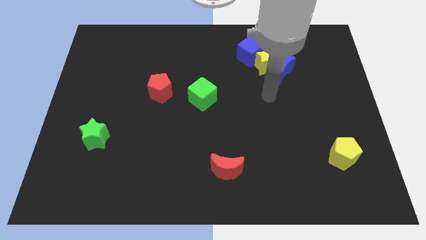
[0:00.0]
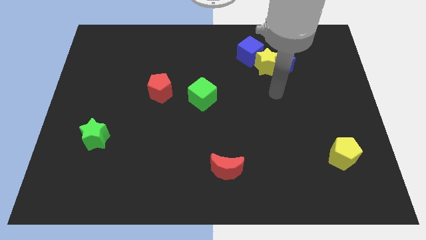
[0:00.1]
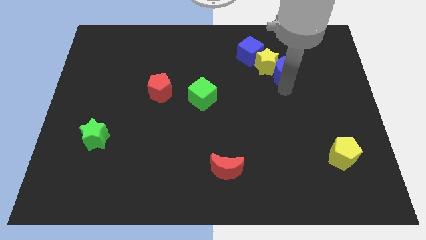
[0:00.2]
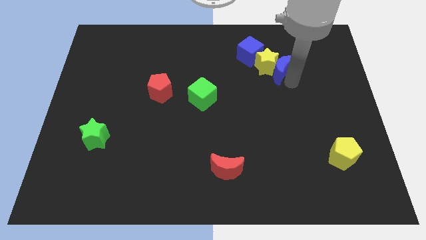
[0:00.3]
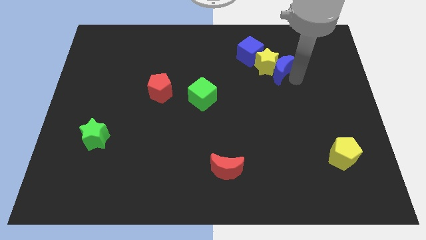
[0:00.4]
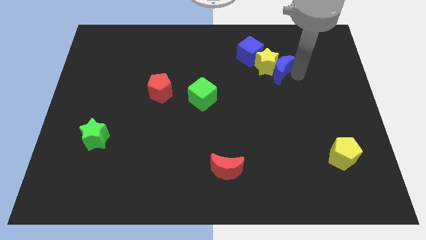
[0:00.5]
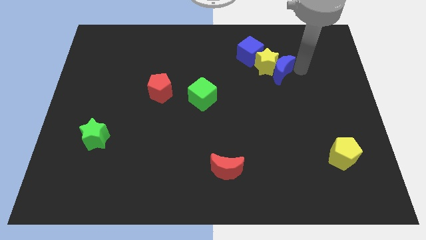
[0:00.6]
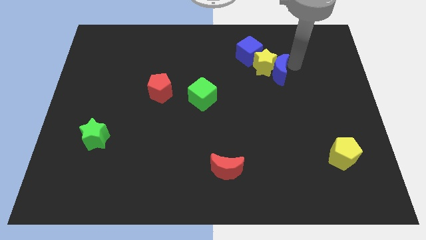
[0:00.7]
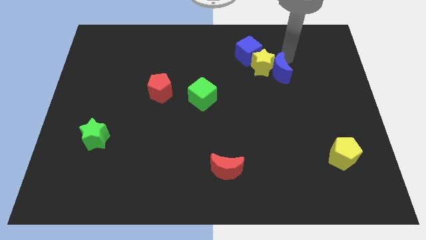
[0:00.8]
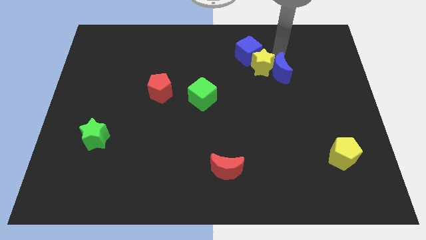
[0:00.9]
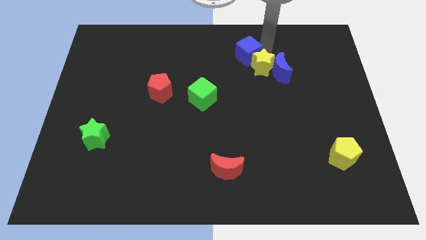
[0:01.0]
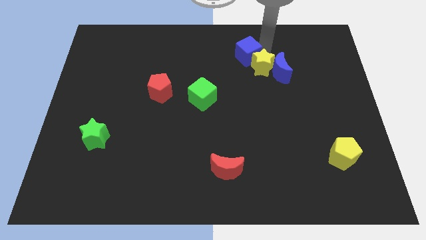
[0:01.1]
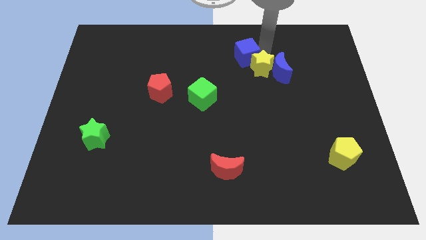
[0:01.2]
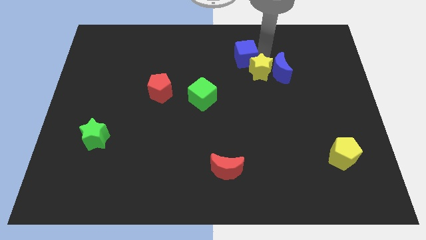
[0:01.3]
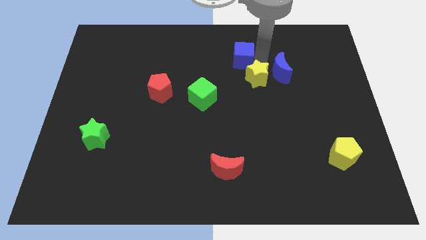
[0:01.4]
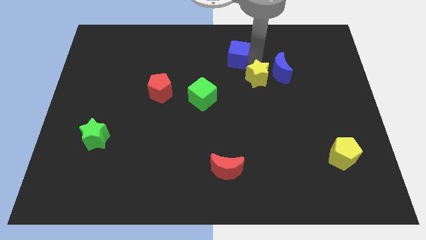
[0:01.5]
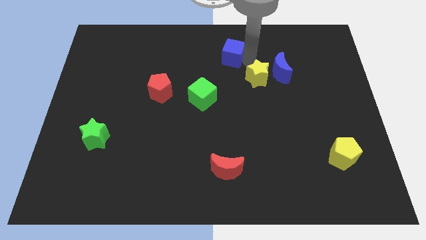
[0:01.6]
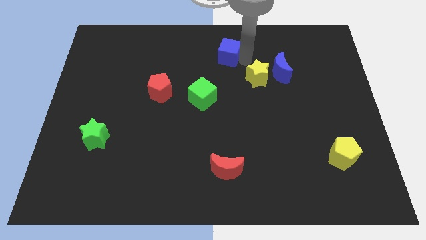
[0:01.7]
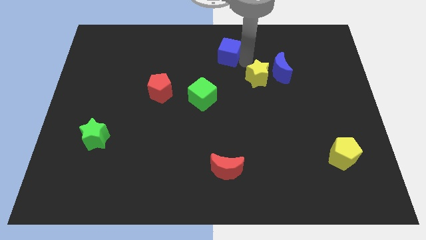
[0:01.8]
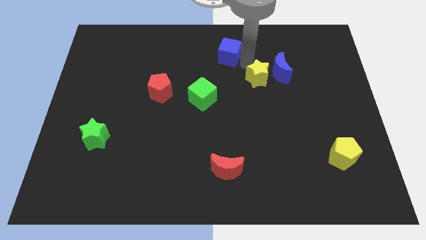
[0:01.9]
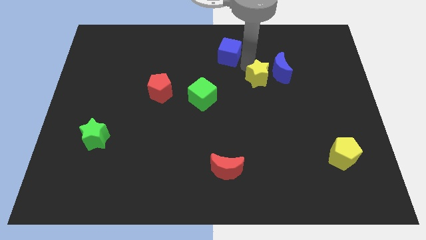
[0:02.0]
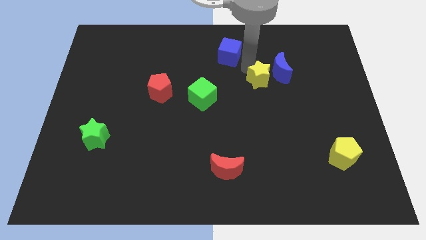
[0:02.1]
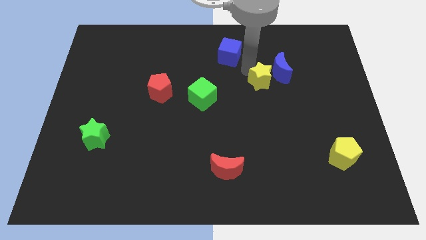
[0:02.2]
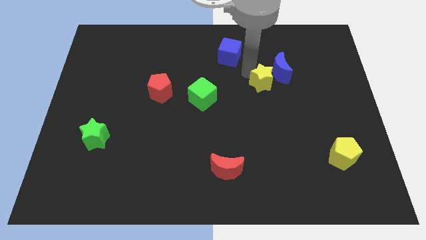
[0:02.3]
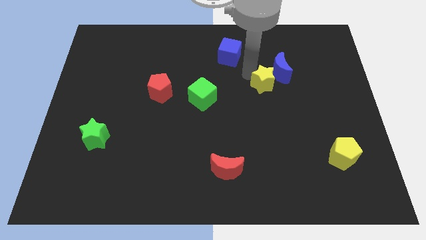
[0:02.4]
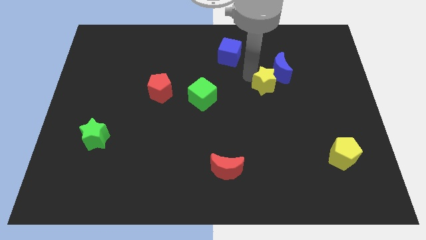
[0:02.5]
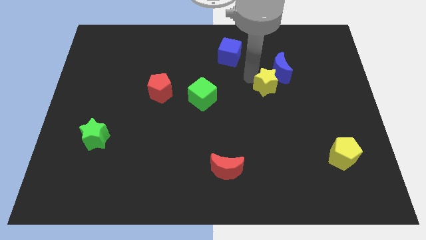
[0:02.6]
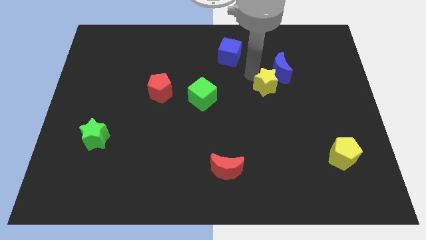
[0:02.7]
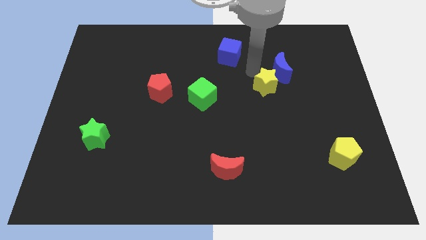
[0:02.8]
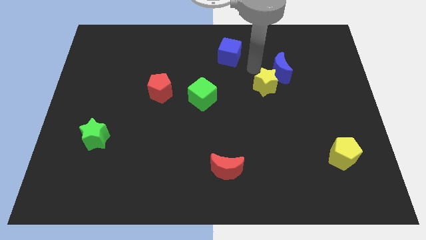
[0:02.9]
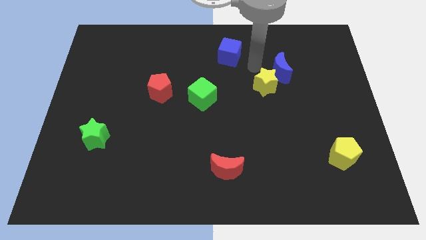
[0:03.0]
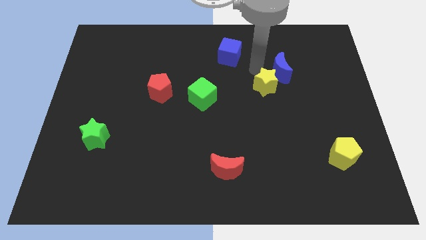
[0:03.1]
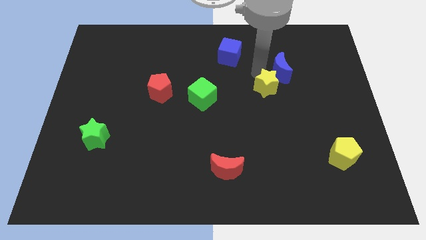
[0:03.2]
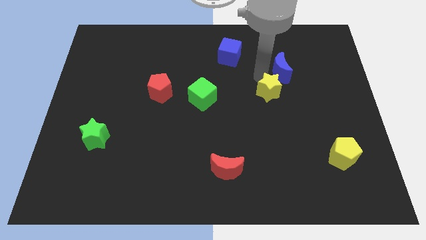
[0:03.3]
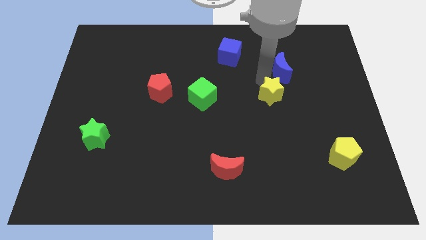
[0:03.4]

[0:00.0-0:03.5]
separate the yellow star from the blue moon and blue cube

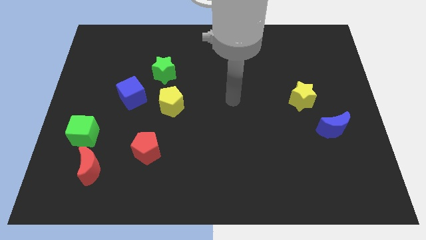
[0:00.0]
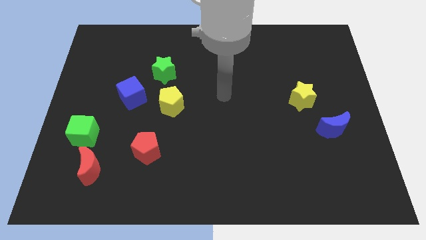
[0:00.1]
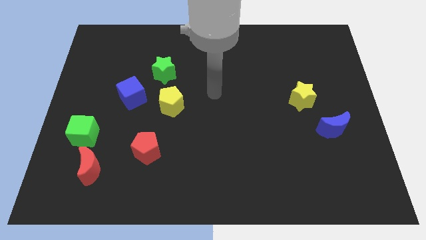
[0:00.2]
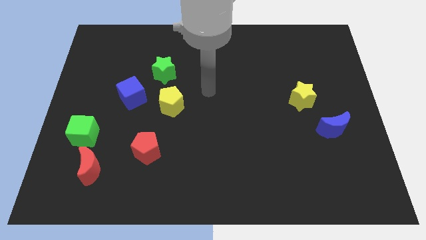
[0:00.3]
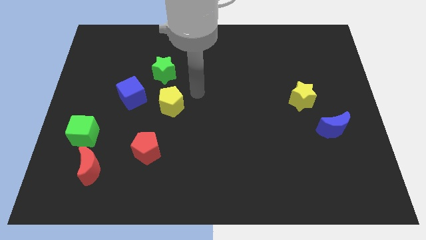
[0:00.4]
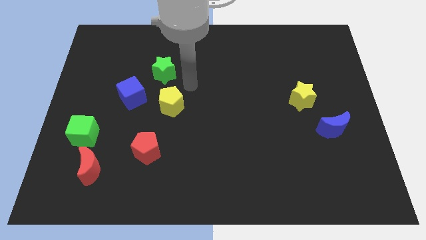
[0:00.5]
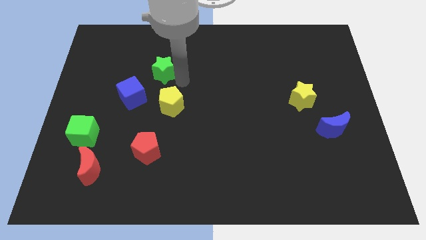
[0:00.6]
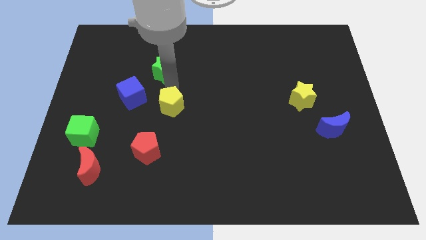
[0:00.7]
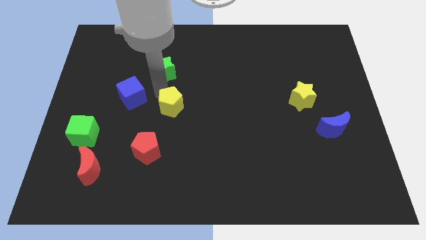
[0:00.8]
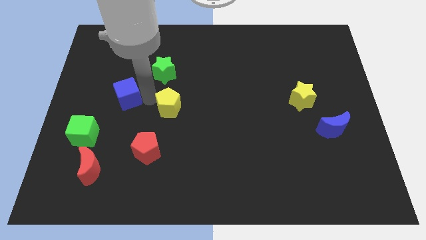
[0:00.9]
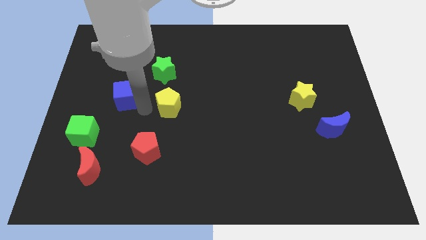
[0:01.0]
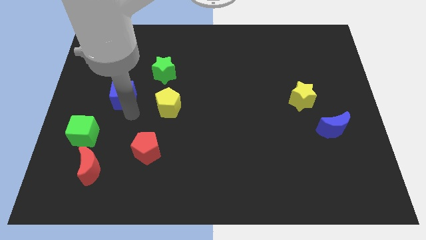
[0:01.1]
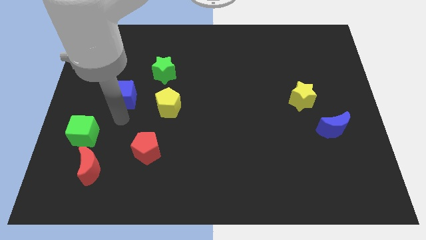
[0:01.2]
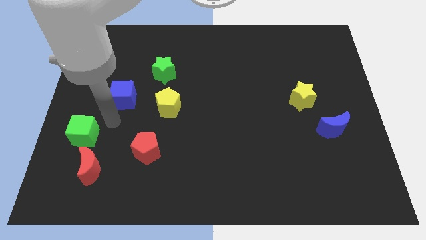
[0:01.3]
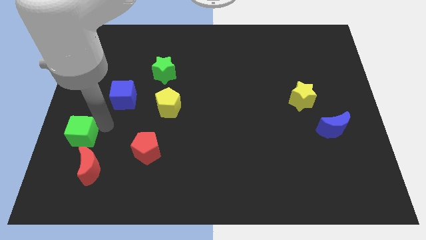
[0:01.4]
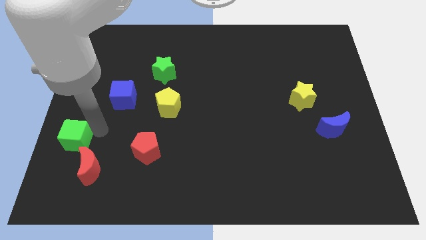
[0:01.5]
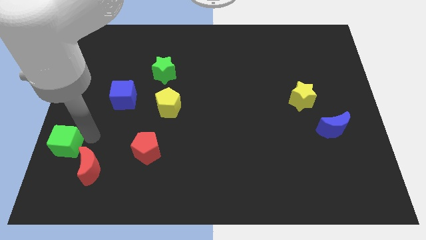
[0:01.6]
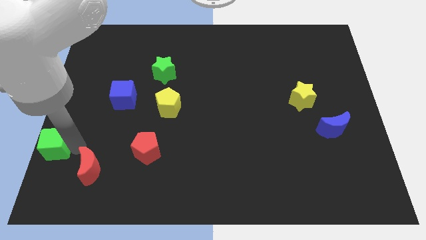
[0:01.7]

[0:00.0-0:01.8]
move the red moon away from the green cube

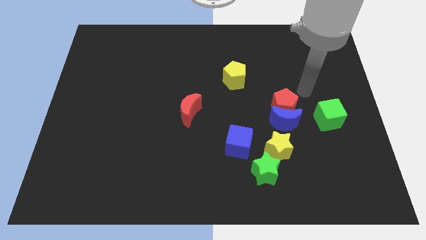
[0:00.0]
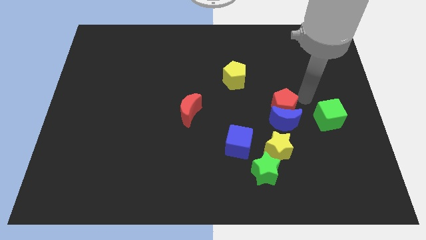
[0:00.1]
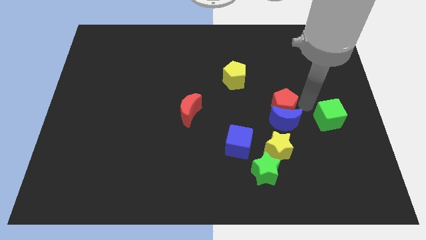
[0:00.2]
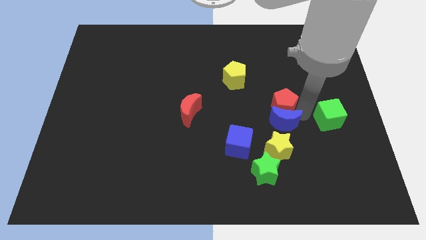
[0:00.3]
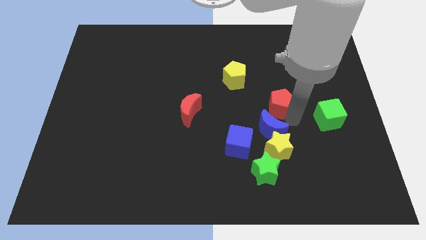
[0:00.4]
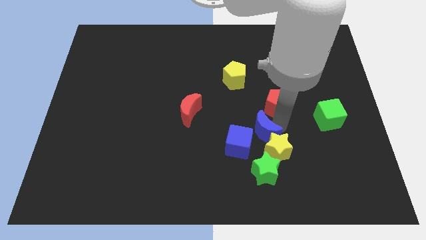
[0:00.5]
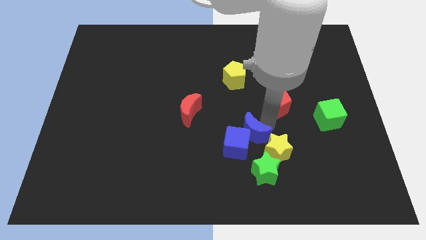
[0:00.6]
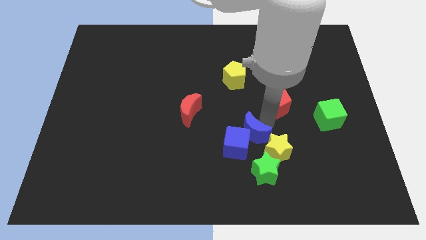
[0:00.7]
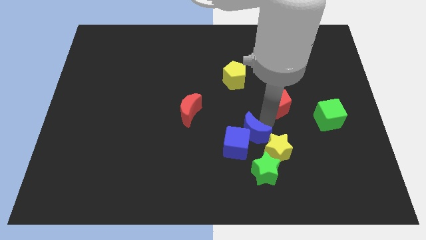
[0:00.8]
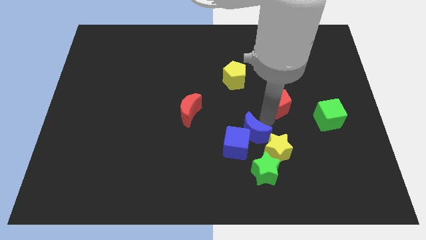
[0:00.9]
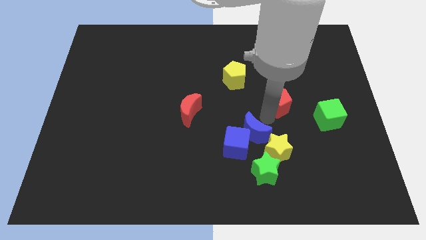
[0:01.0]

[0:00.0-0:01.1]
pull the red pentagon apart from the blue moon

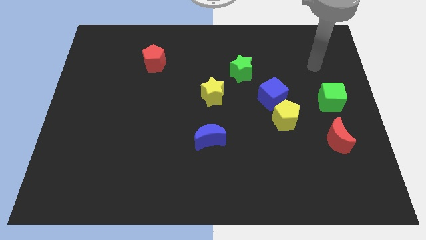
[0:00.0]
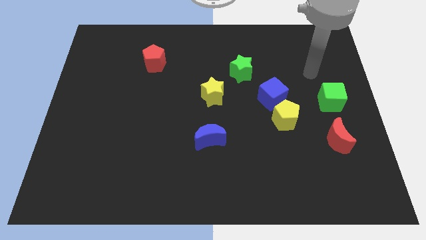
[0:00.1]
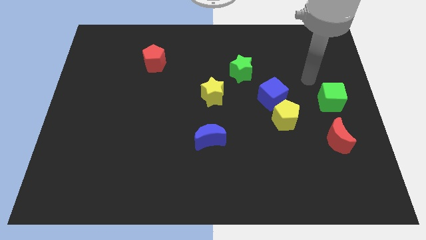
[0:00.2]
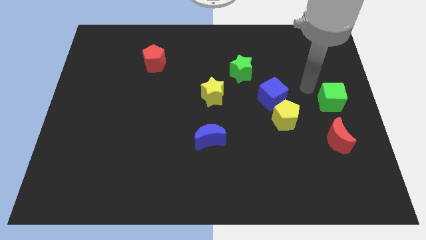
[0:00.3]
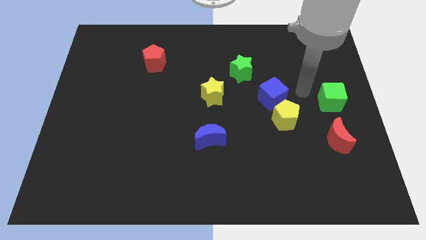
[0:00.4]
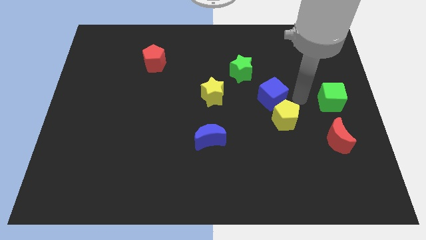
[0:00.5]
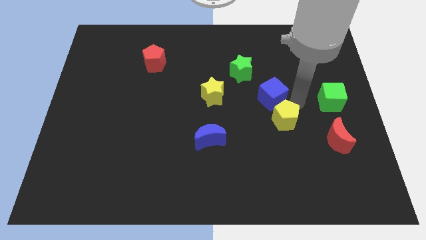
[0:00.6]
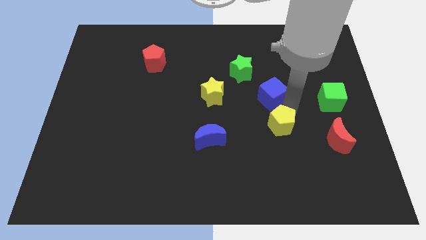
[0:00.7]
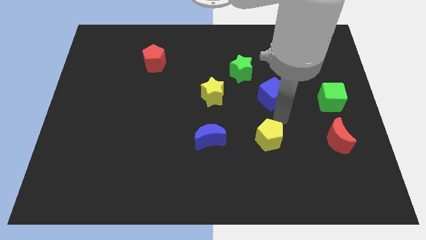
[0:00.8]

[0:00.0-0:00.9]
move the blue cube away from the yellow pentagon

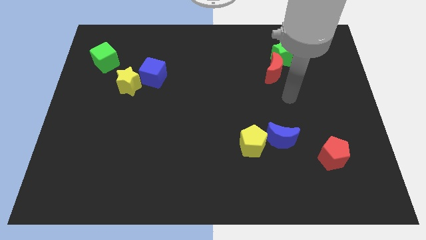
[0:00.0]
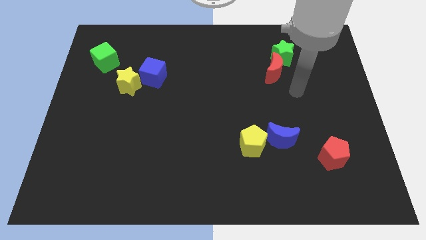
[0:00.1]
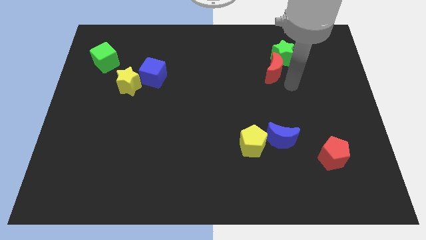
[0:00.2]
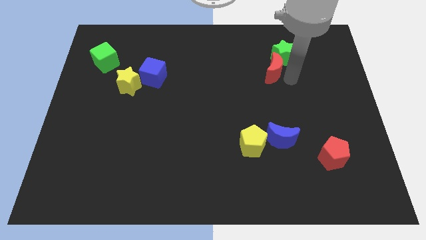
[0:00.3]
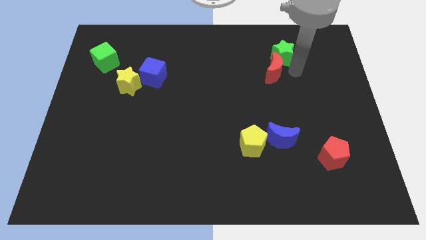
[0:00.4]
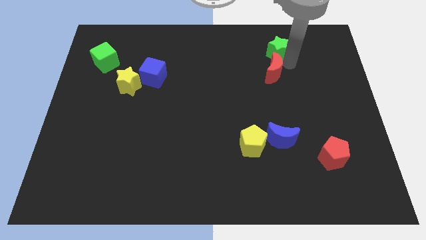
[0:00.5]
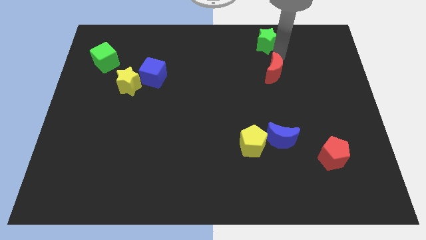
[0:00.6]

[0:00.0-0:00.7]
separate the red moon from the green star

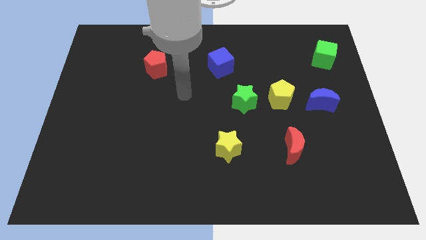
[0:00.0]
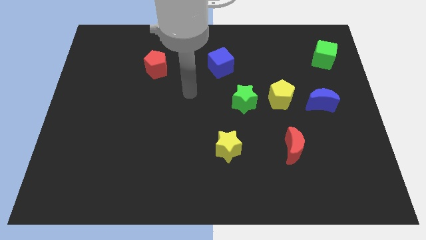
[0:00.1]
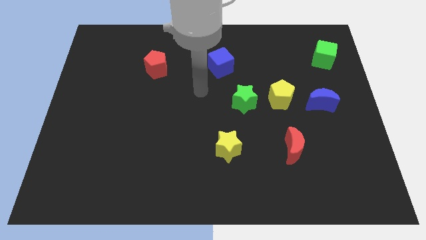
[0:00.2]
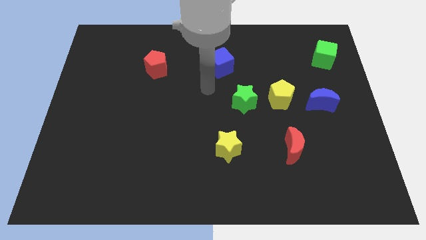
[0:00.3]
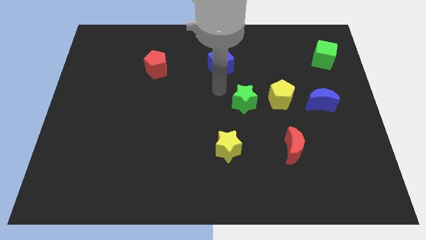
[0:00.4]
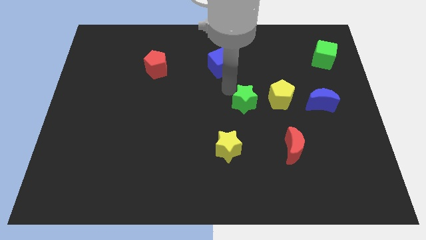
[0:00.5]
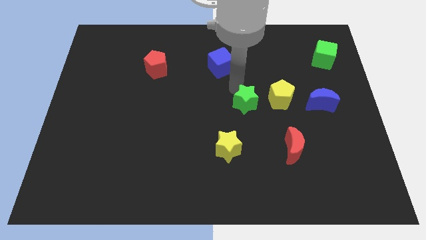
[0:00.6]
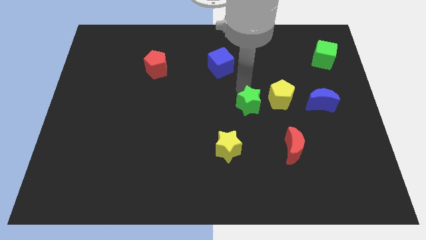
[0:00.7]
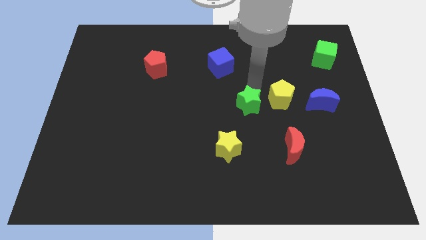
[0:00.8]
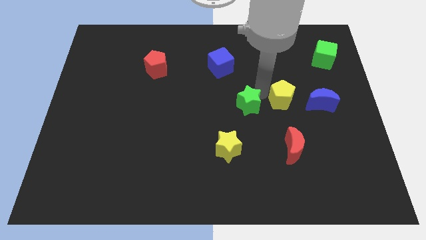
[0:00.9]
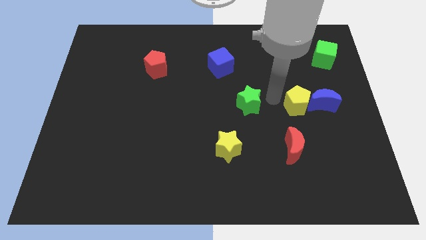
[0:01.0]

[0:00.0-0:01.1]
separate the green star from the yellow pentagon

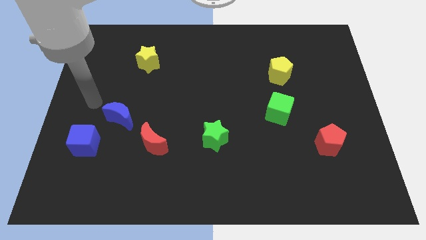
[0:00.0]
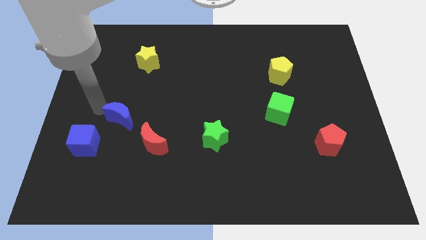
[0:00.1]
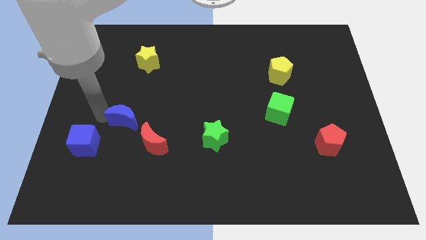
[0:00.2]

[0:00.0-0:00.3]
pull the blue moon apart from the blue cube
